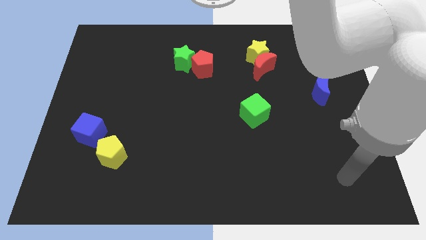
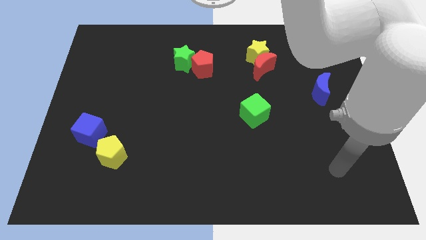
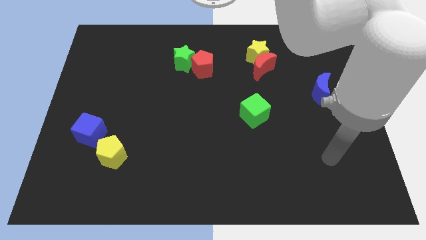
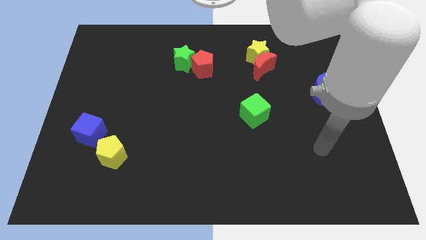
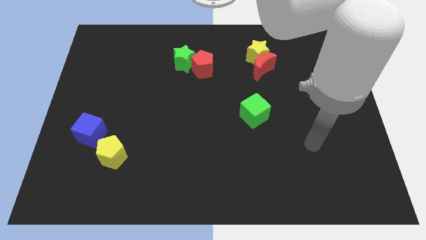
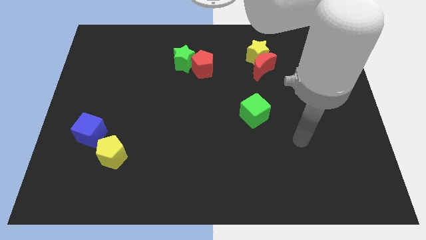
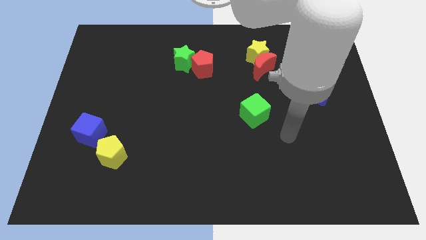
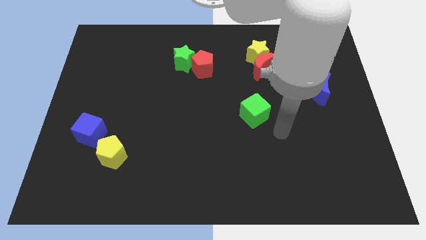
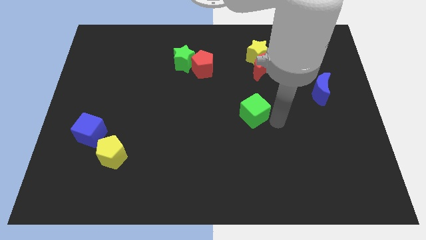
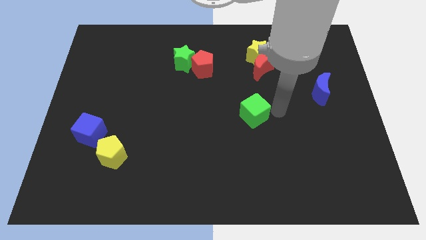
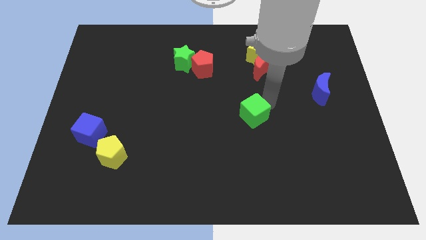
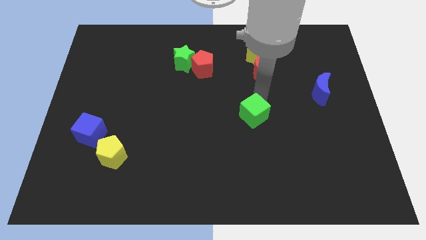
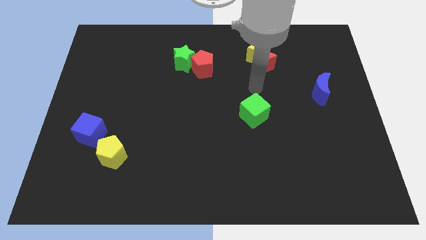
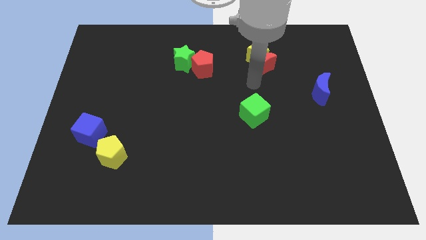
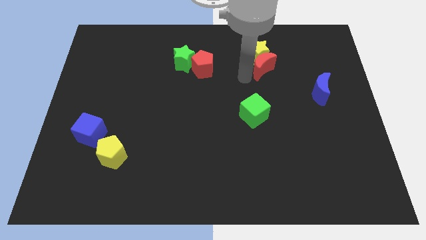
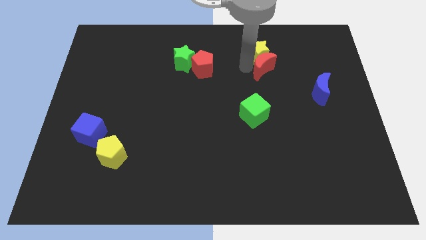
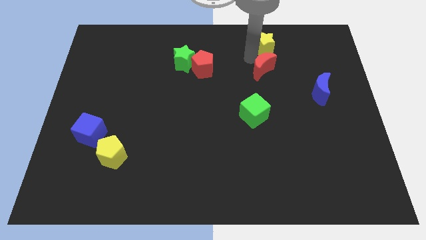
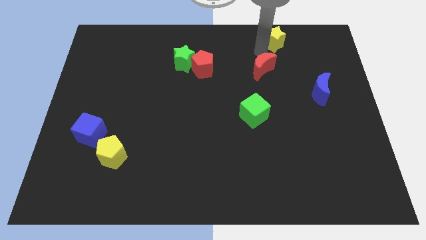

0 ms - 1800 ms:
move the red moon away from the yellow star

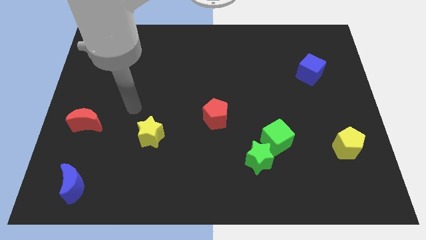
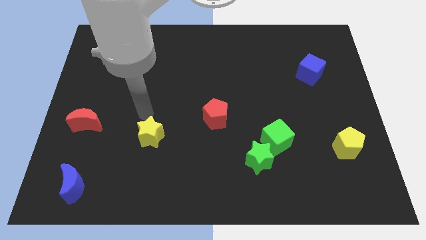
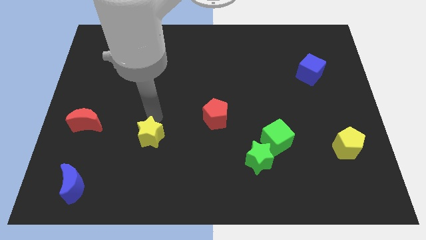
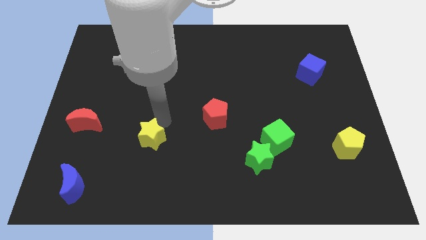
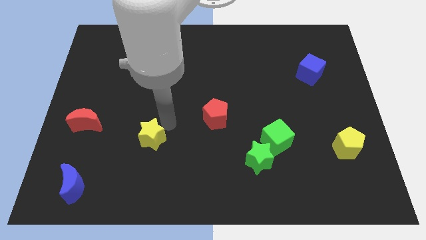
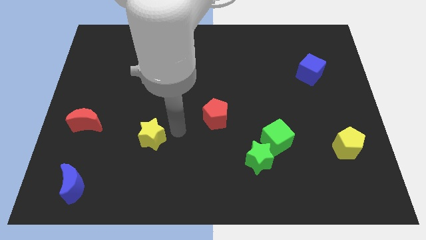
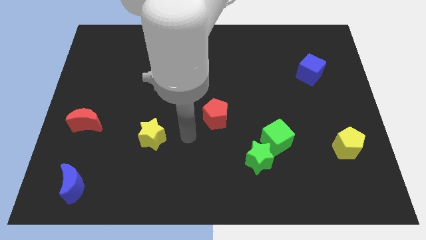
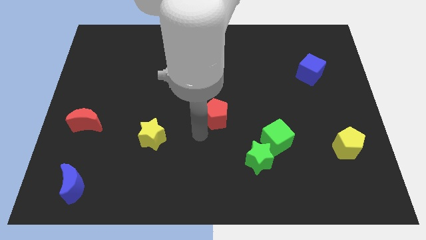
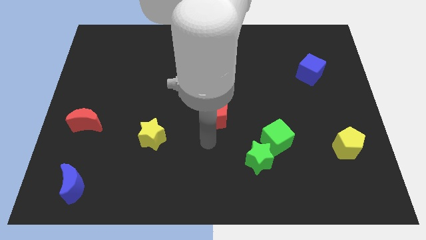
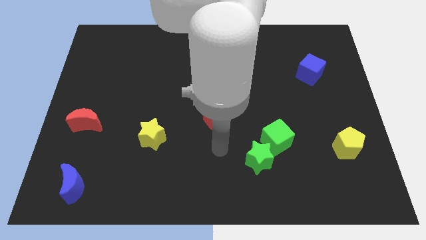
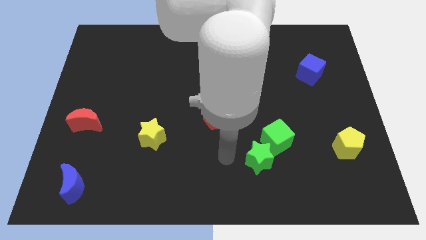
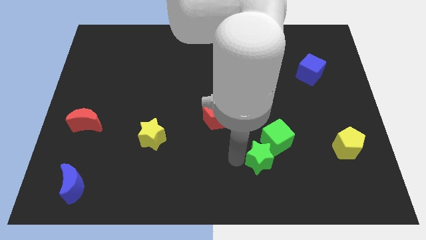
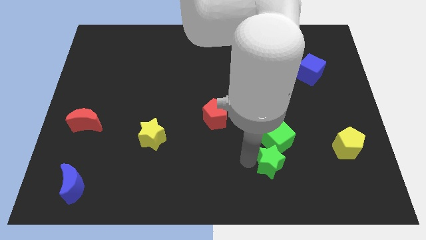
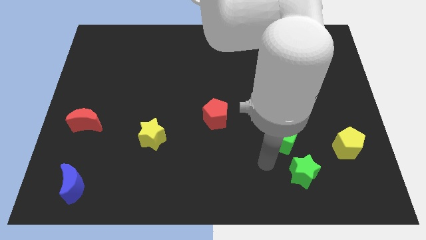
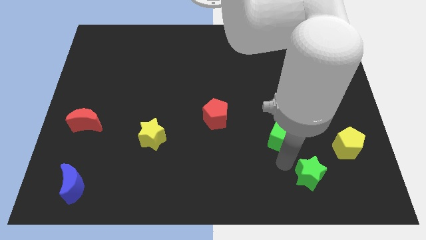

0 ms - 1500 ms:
move the green cube away from the green star

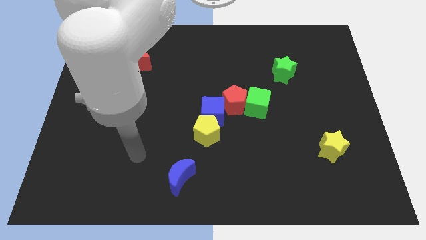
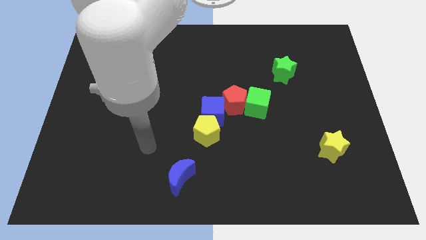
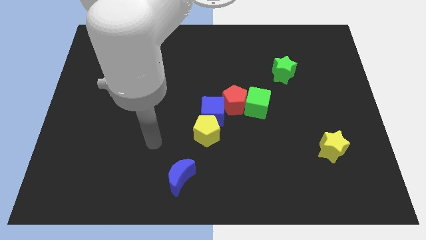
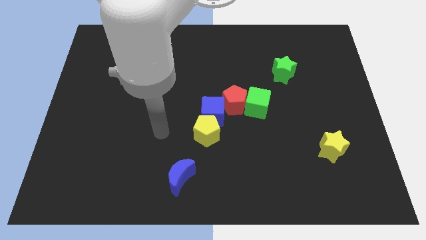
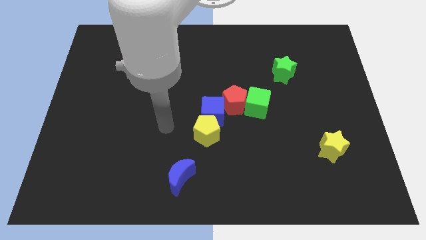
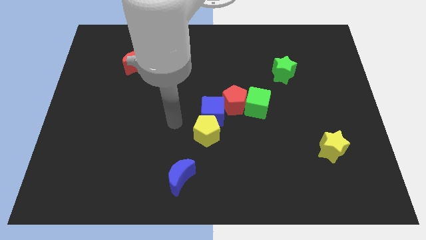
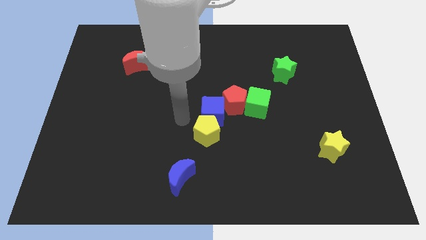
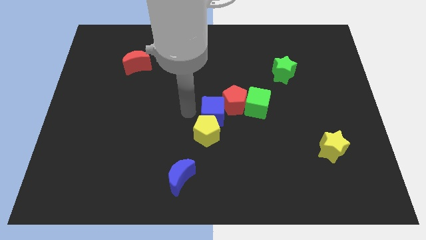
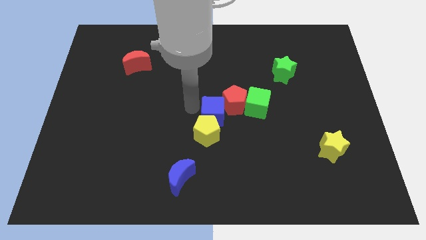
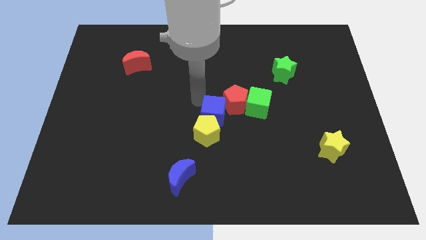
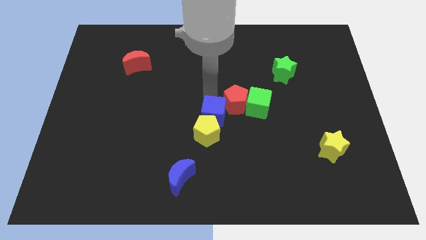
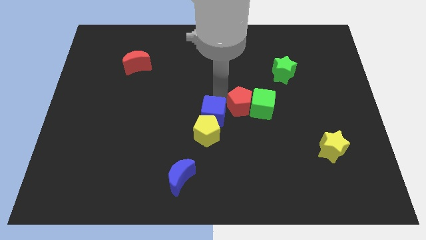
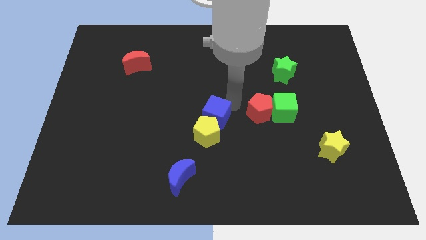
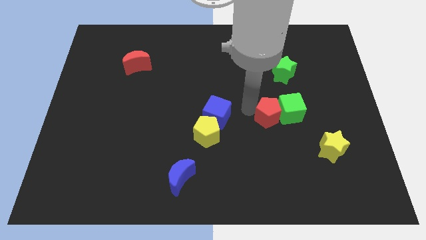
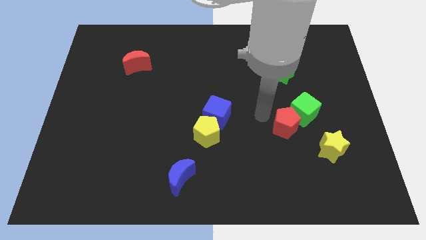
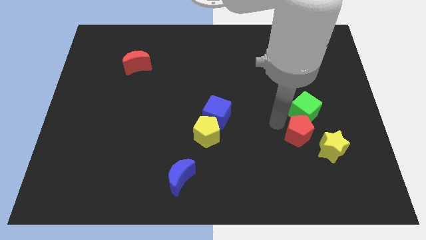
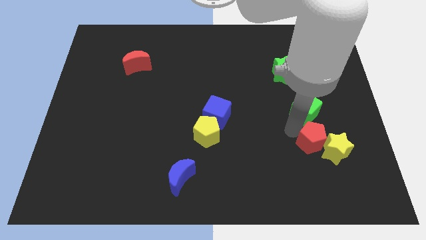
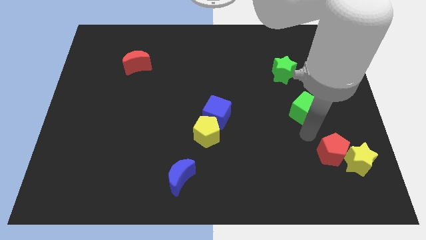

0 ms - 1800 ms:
move the green cube away from the red pentagon

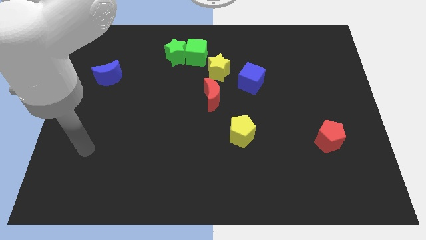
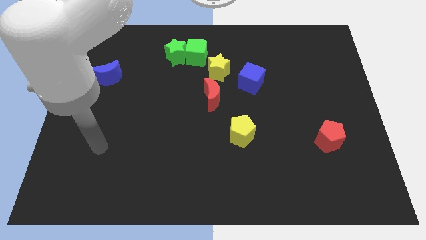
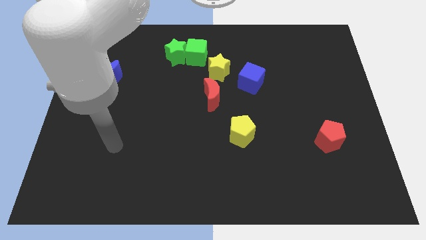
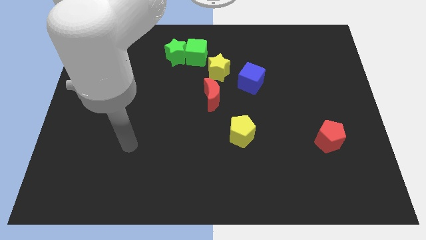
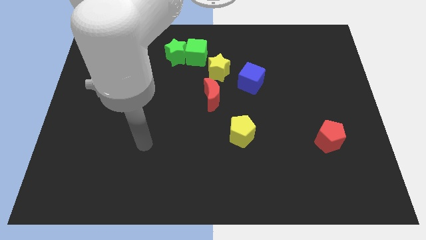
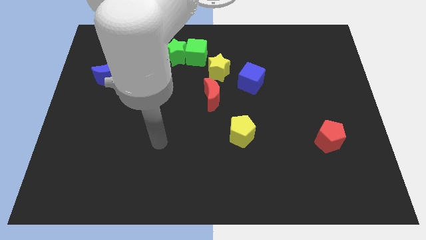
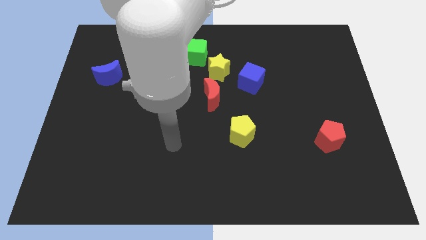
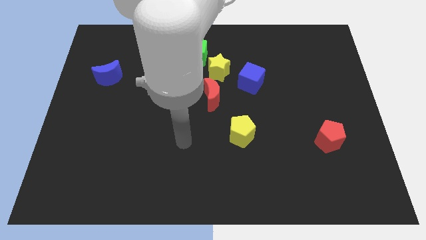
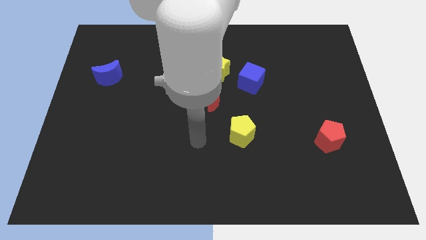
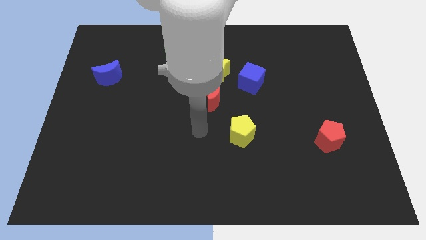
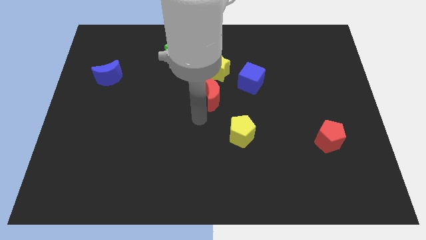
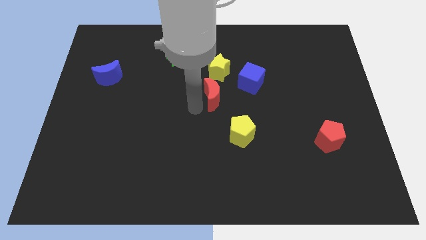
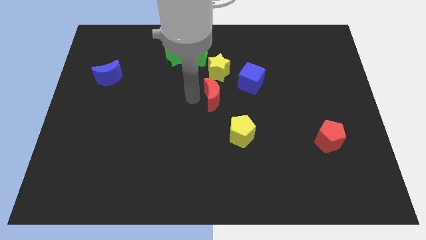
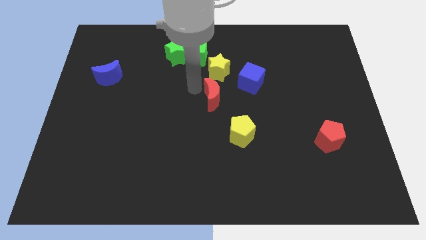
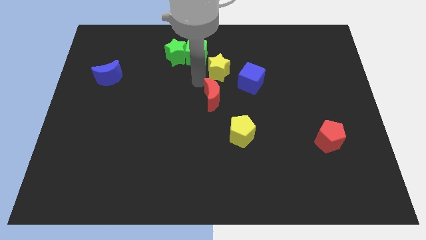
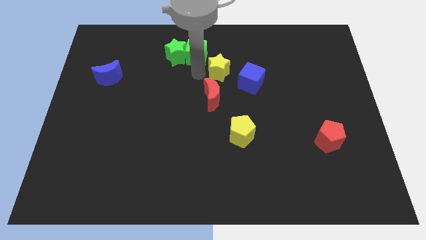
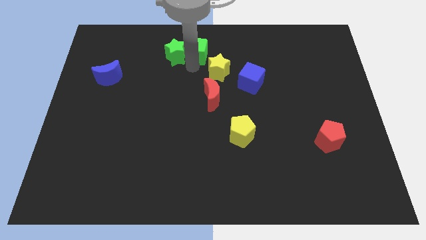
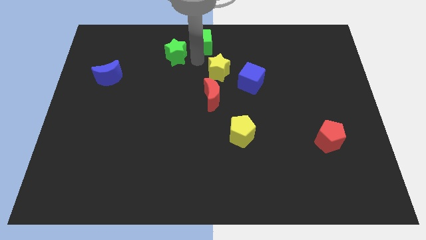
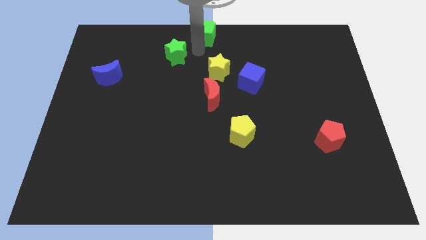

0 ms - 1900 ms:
pull the green star apart from the green cube

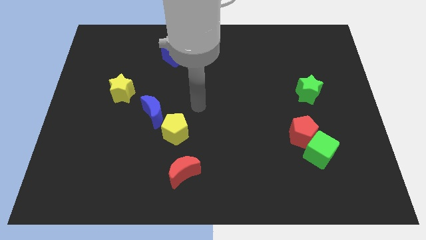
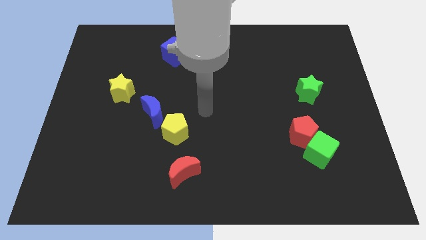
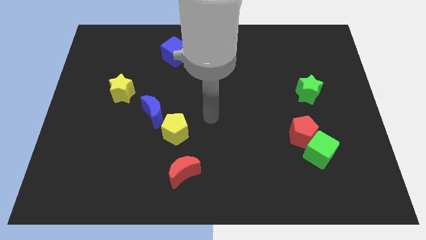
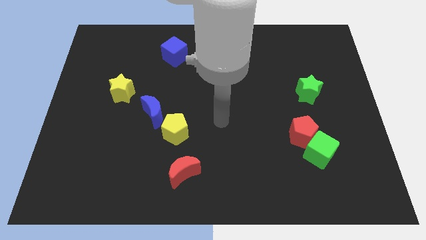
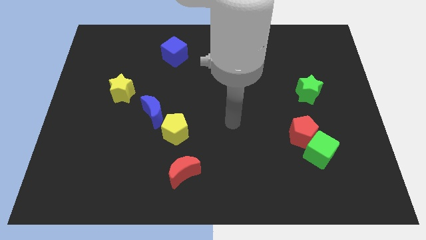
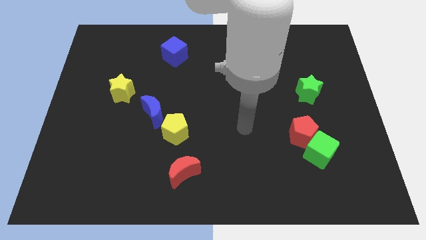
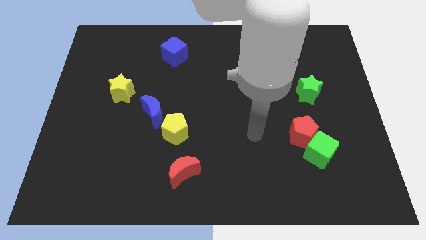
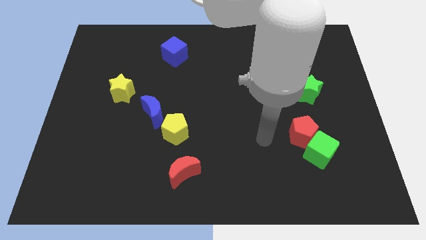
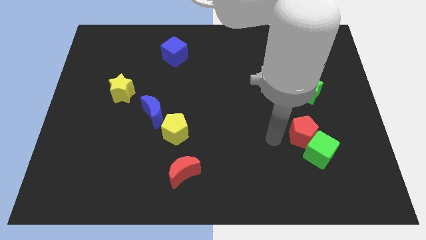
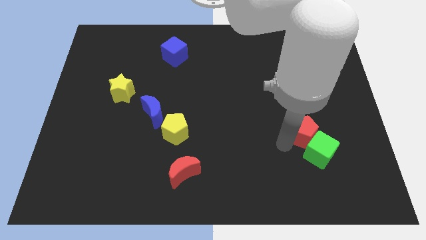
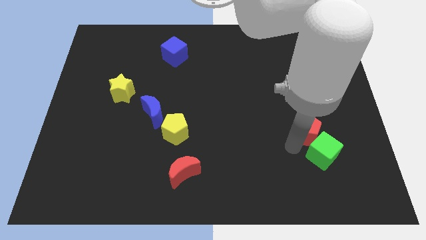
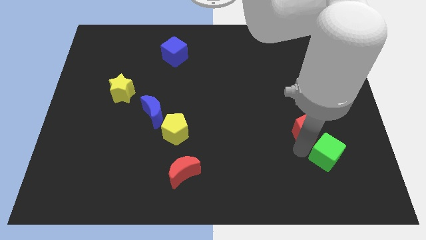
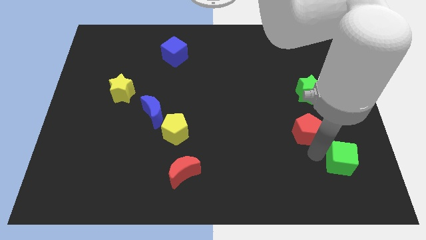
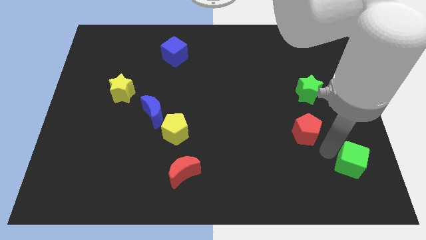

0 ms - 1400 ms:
pull the red pentagon apart from the green cube

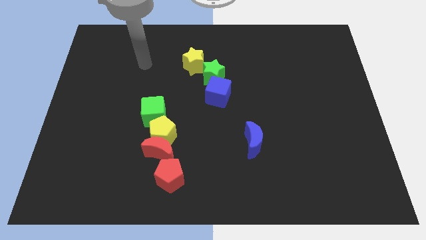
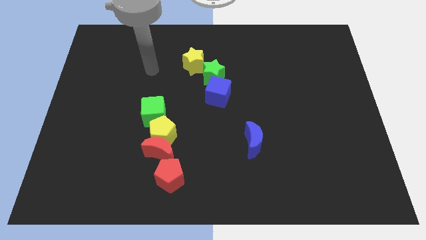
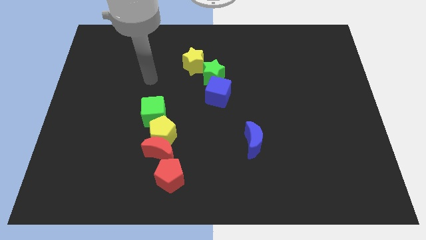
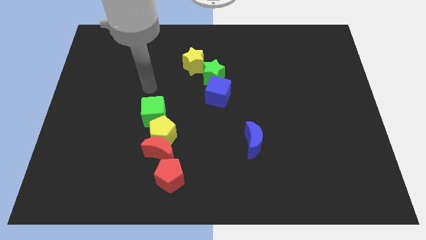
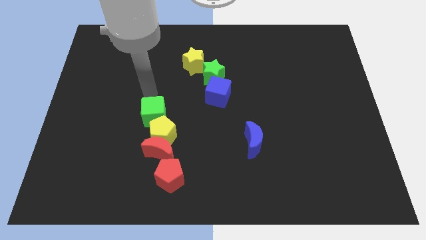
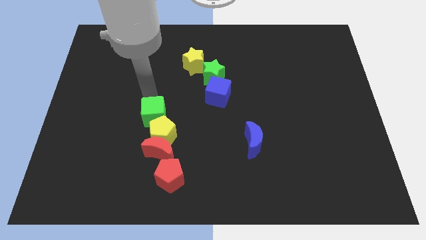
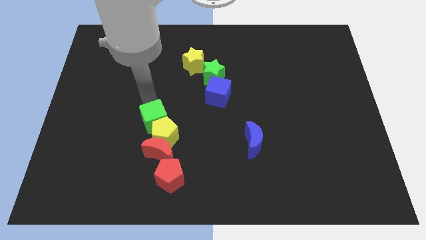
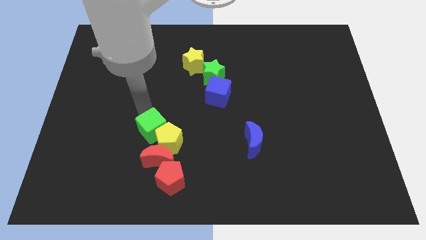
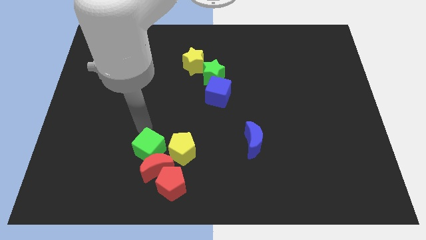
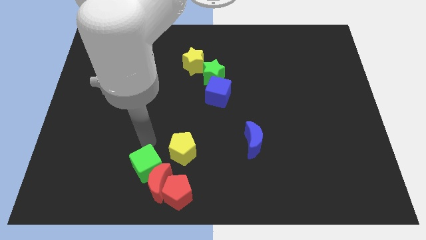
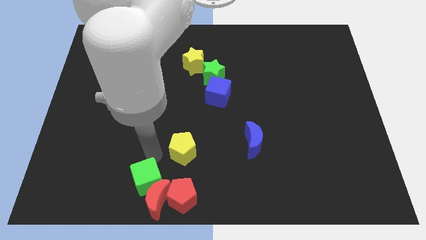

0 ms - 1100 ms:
separate the yellow pentagon from the red moon and green cube

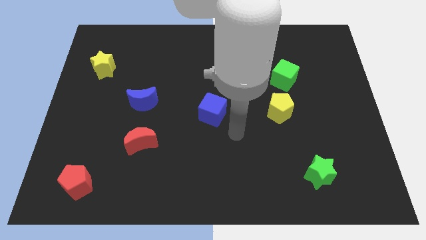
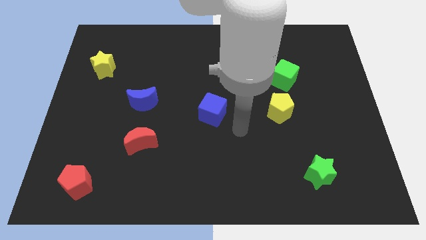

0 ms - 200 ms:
pull the green cube apart from the yellow pentagon
